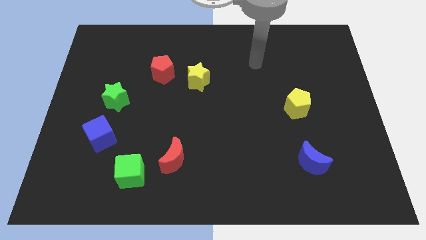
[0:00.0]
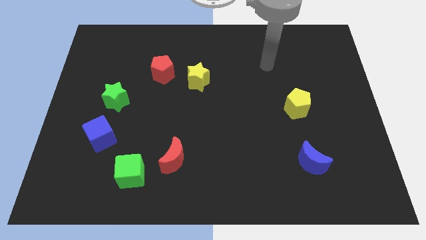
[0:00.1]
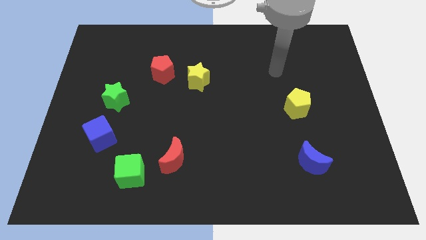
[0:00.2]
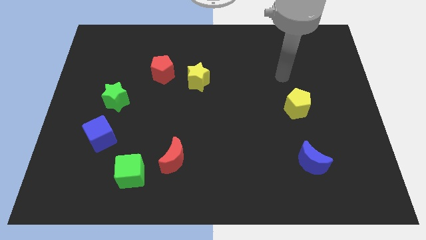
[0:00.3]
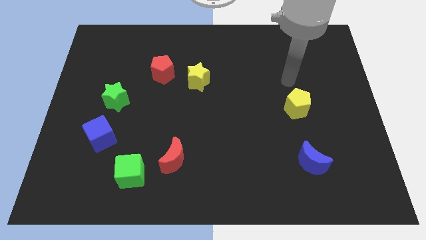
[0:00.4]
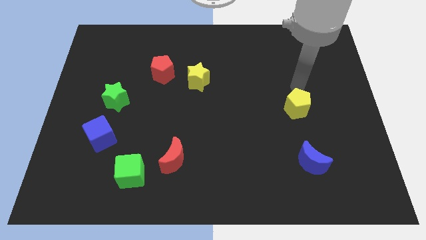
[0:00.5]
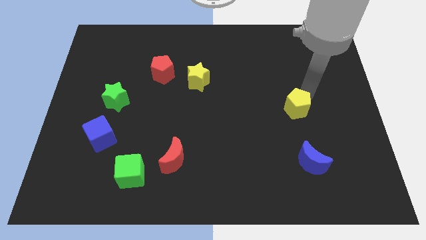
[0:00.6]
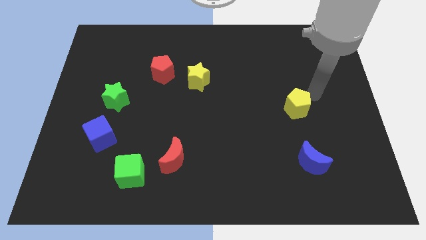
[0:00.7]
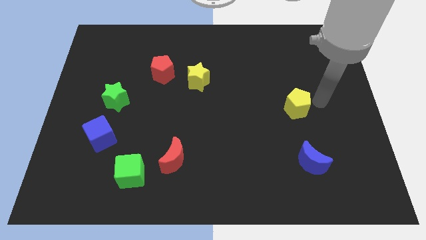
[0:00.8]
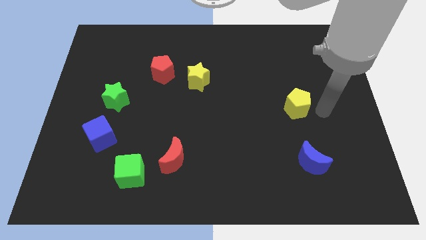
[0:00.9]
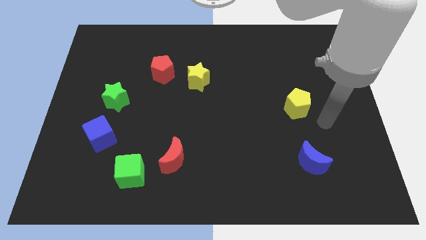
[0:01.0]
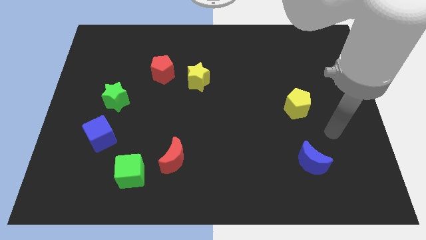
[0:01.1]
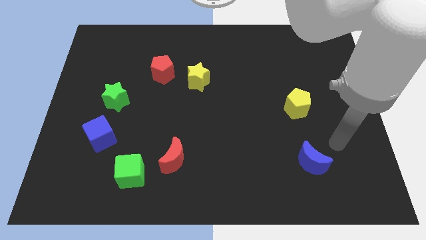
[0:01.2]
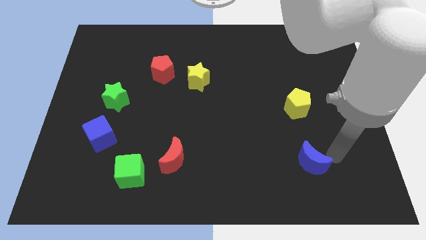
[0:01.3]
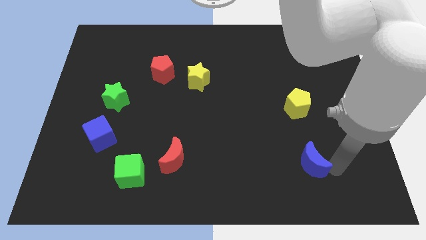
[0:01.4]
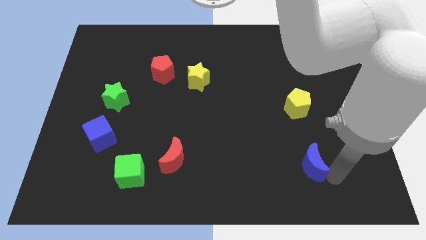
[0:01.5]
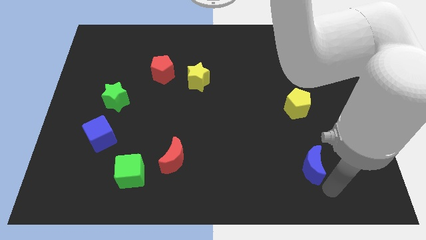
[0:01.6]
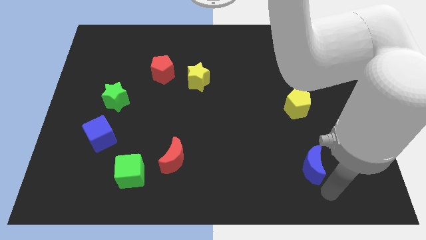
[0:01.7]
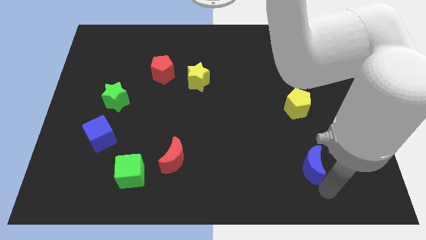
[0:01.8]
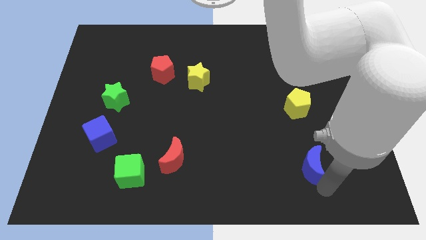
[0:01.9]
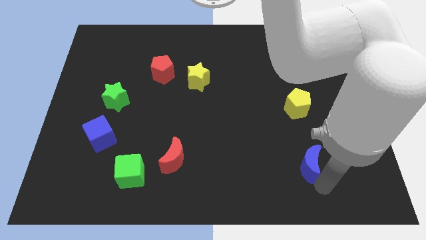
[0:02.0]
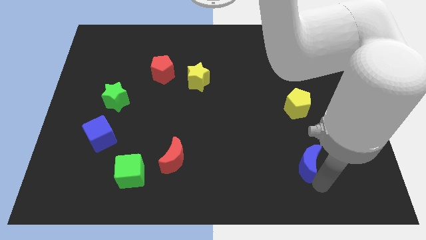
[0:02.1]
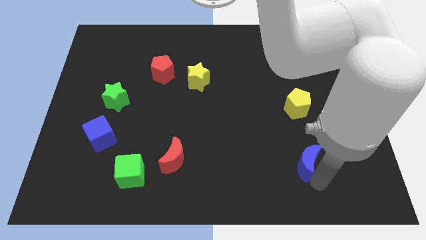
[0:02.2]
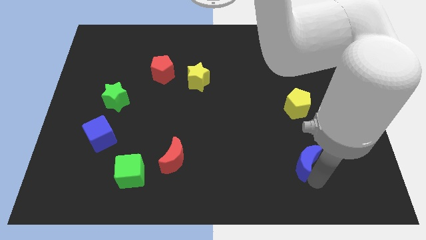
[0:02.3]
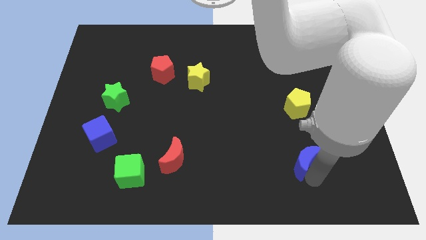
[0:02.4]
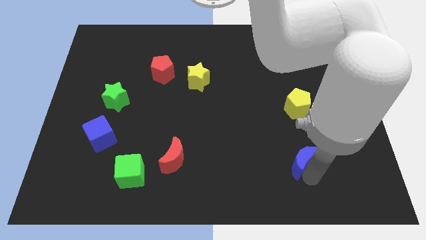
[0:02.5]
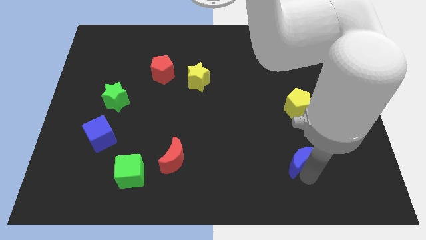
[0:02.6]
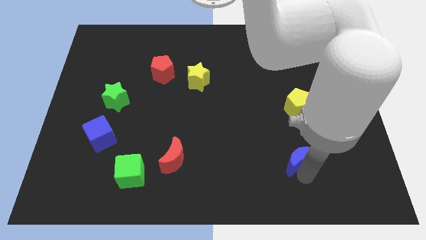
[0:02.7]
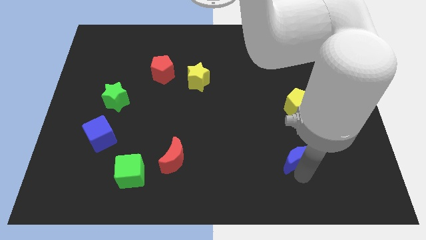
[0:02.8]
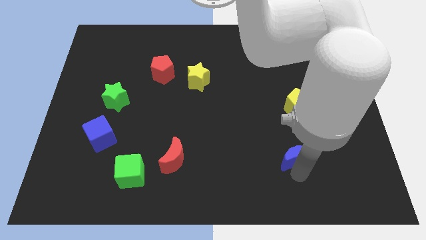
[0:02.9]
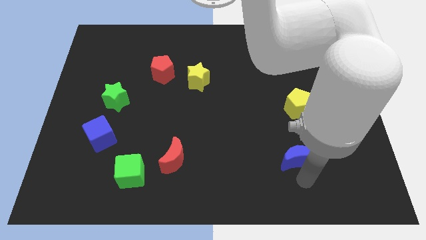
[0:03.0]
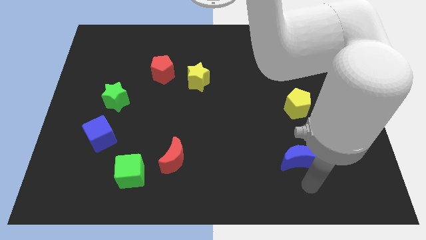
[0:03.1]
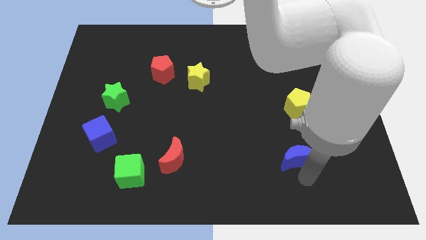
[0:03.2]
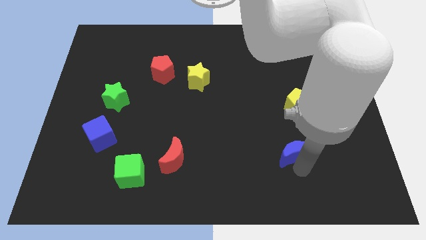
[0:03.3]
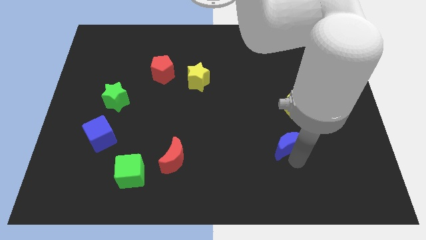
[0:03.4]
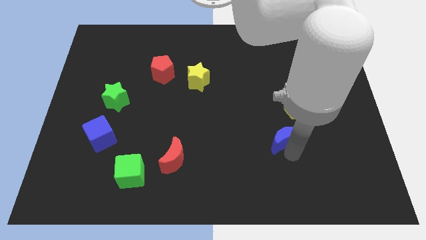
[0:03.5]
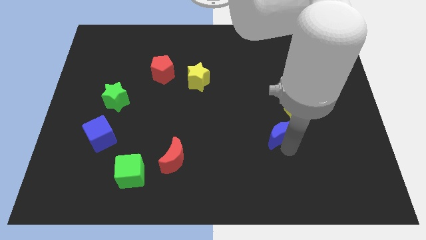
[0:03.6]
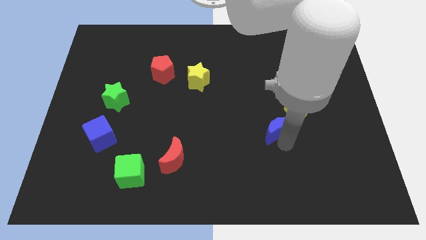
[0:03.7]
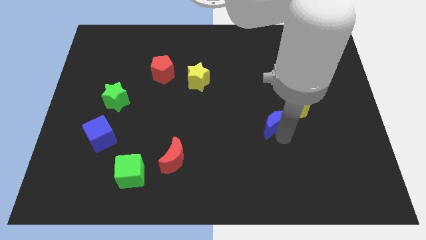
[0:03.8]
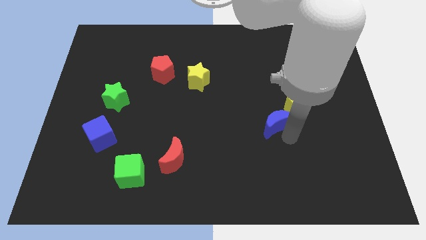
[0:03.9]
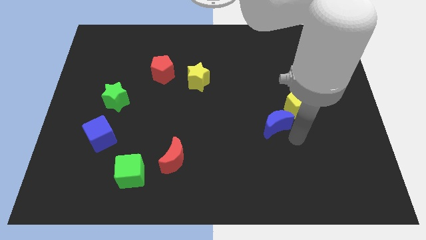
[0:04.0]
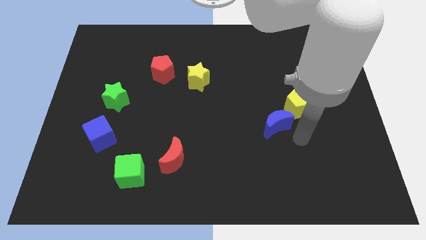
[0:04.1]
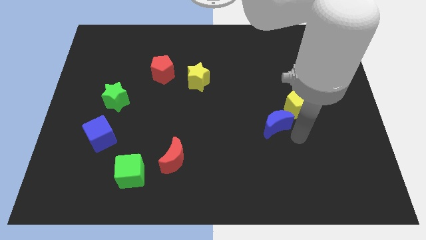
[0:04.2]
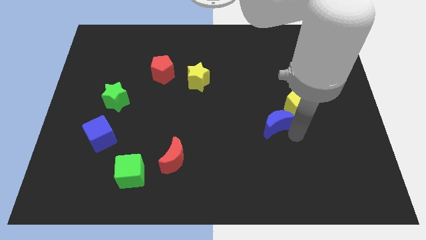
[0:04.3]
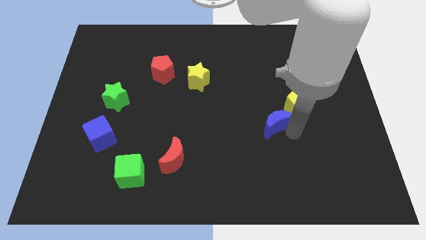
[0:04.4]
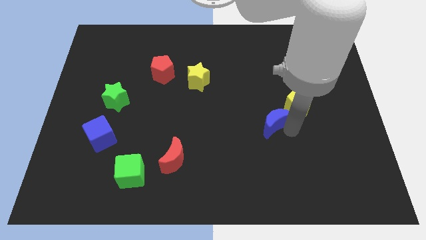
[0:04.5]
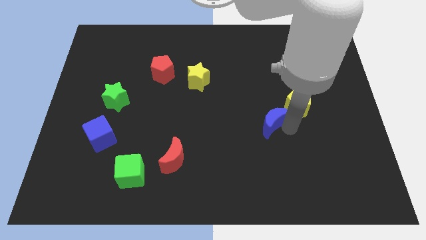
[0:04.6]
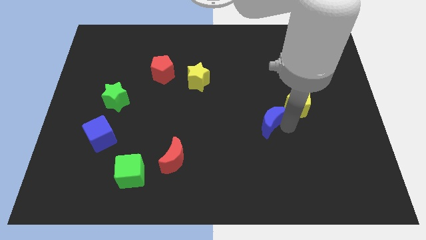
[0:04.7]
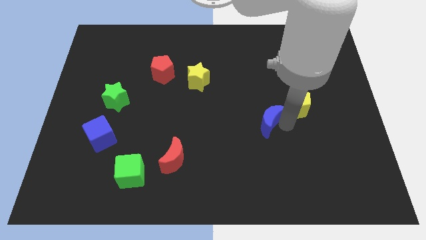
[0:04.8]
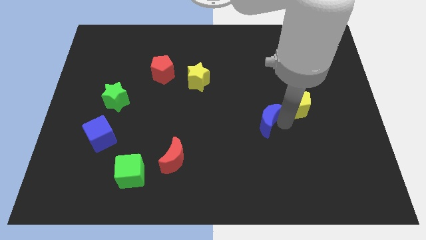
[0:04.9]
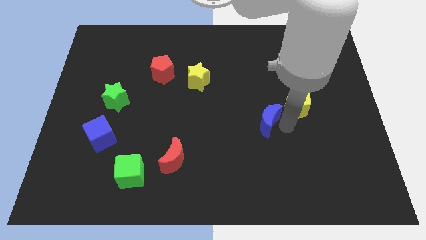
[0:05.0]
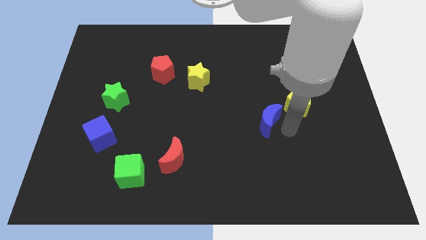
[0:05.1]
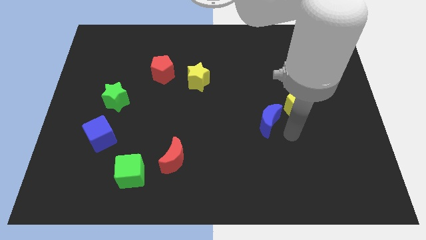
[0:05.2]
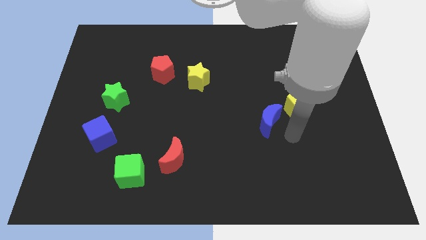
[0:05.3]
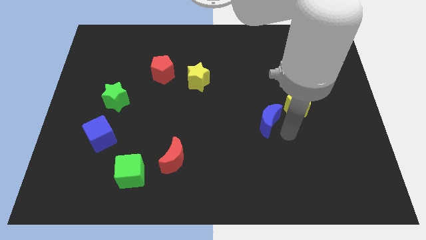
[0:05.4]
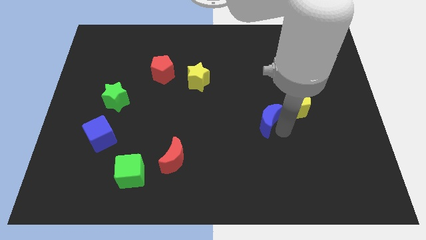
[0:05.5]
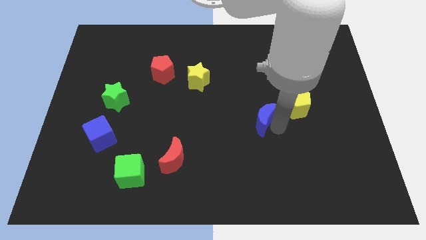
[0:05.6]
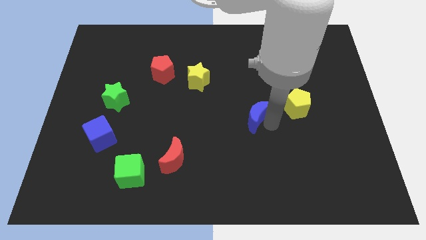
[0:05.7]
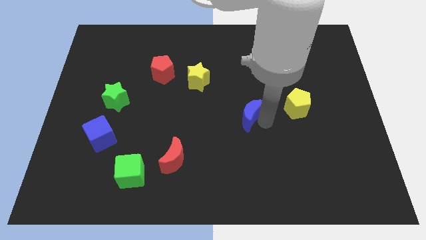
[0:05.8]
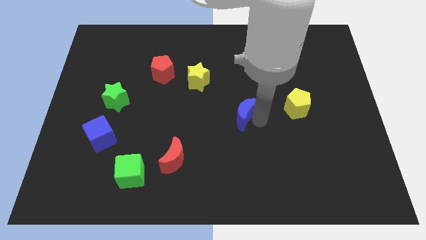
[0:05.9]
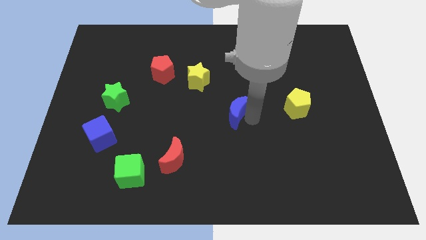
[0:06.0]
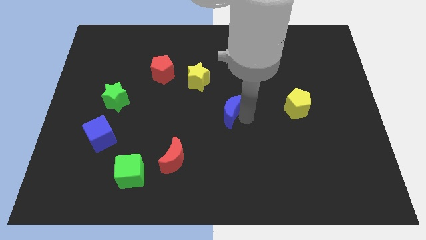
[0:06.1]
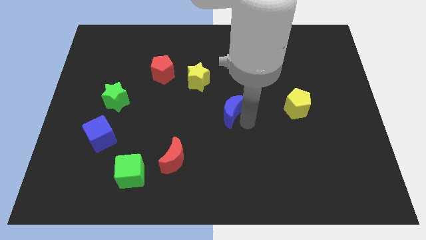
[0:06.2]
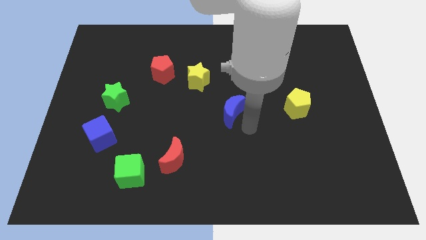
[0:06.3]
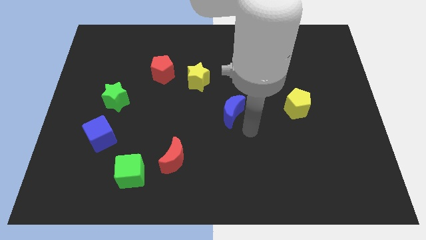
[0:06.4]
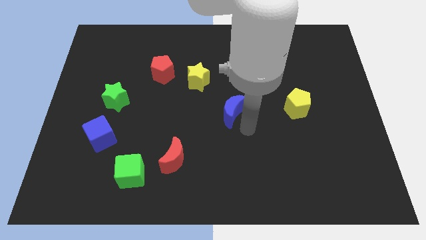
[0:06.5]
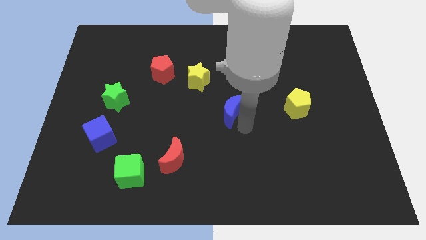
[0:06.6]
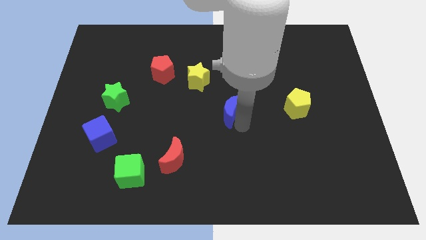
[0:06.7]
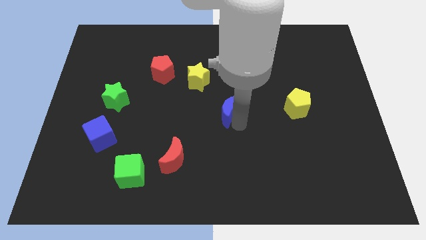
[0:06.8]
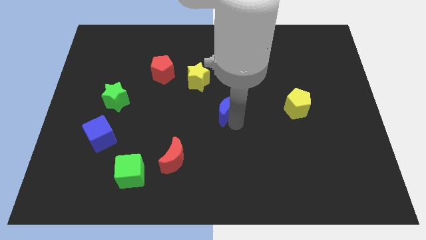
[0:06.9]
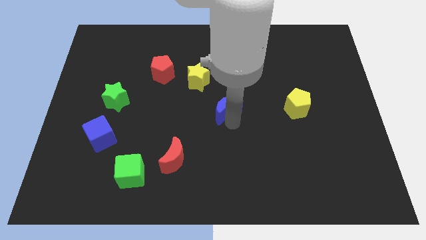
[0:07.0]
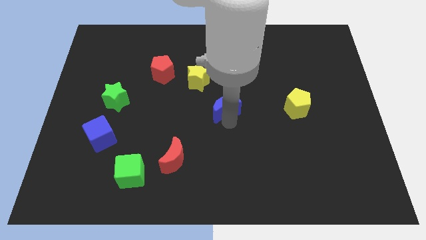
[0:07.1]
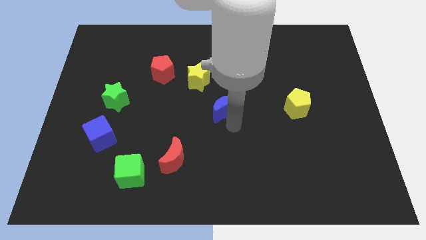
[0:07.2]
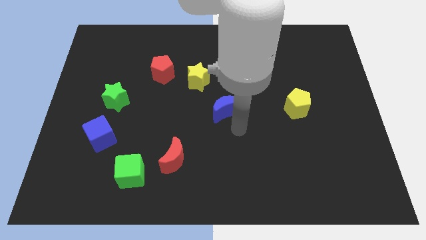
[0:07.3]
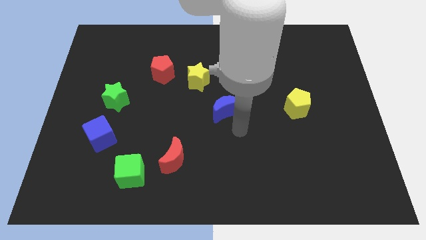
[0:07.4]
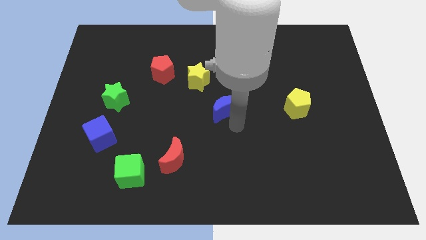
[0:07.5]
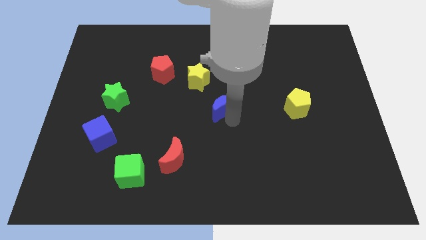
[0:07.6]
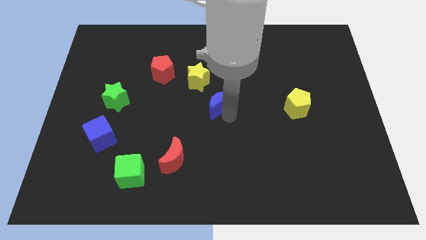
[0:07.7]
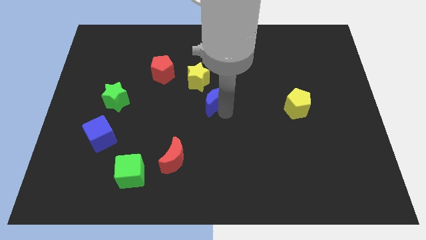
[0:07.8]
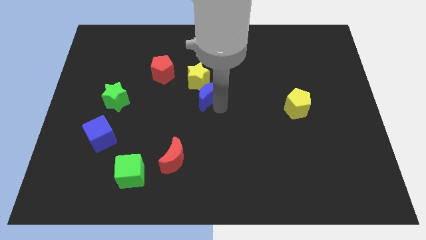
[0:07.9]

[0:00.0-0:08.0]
move the blue moon close to the yellow star
